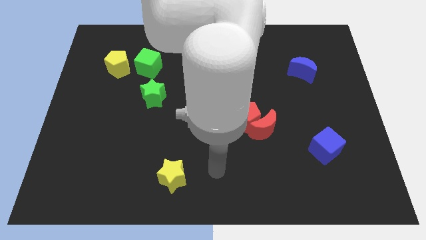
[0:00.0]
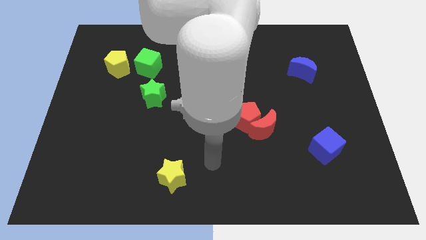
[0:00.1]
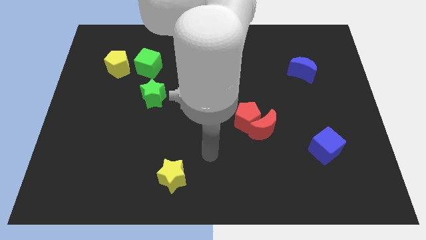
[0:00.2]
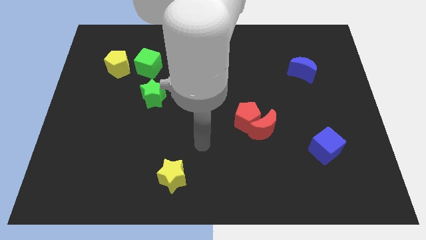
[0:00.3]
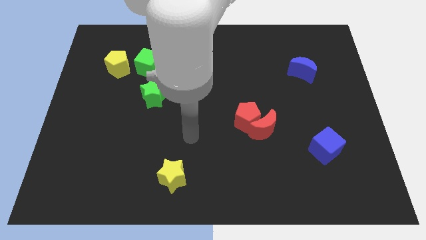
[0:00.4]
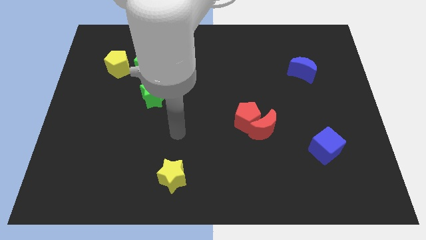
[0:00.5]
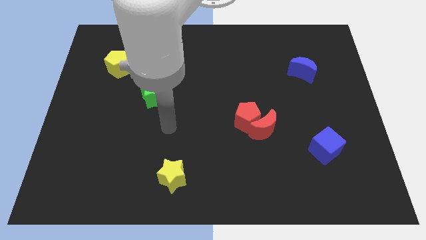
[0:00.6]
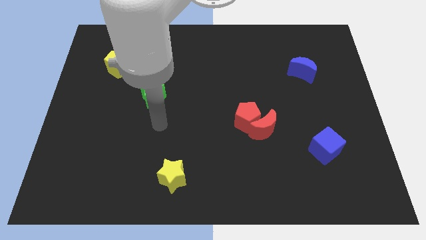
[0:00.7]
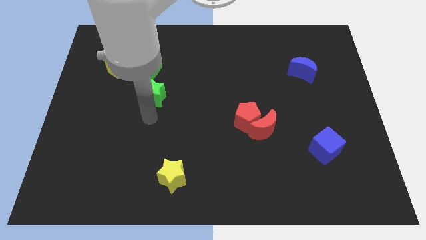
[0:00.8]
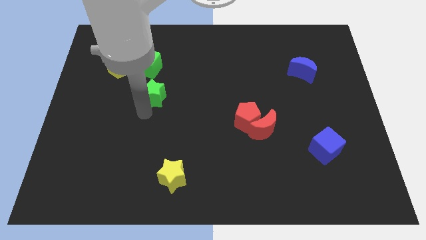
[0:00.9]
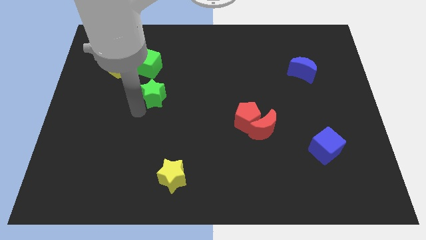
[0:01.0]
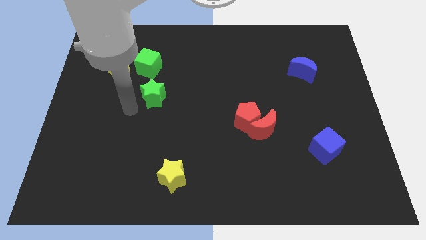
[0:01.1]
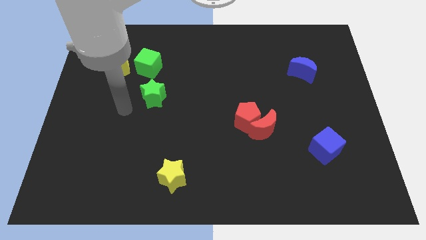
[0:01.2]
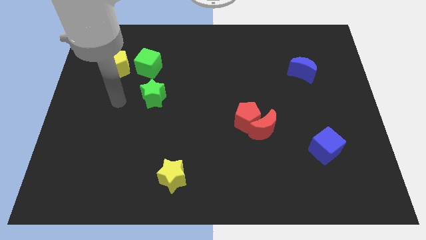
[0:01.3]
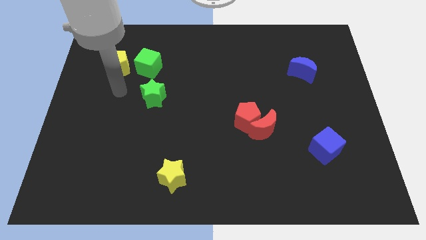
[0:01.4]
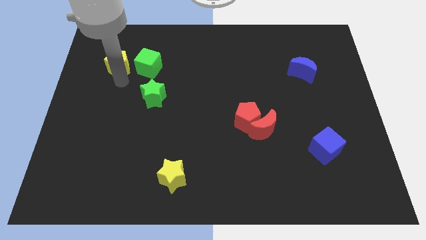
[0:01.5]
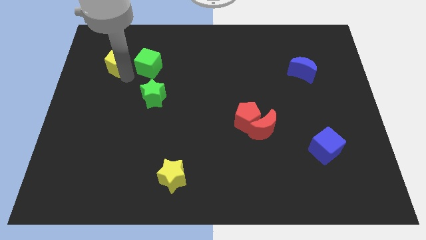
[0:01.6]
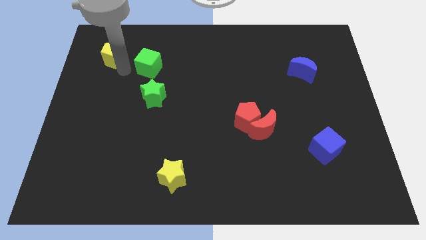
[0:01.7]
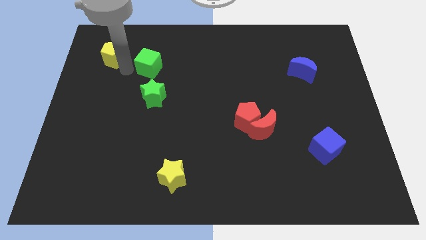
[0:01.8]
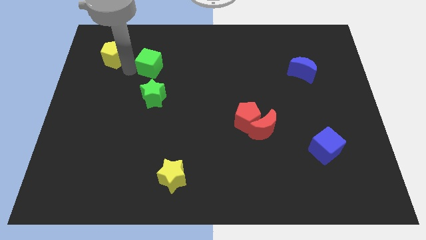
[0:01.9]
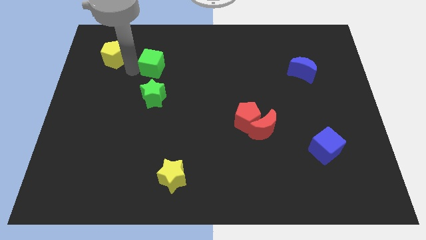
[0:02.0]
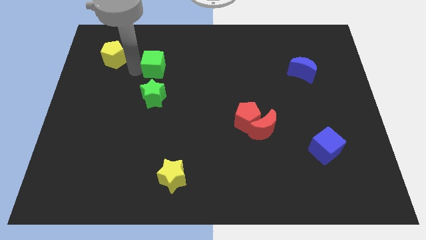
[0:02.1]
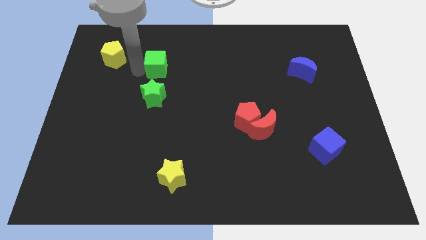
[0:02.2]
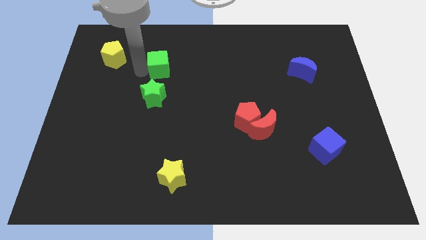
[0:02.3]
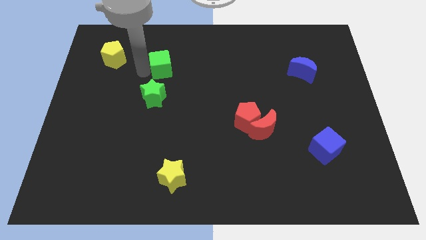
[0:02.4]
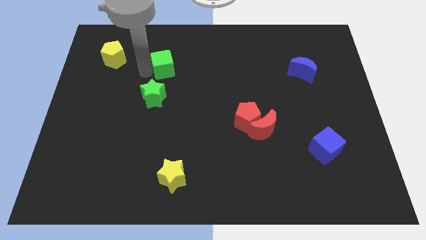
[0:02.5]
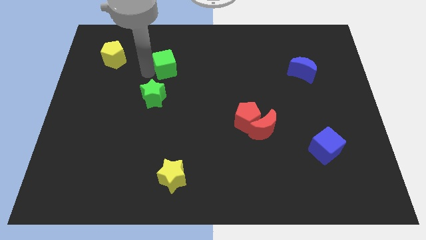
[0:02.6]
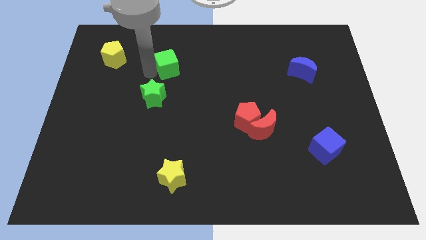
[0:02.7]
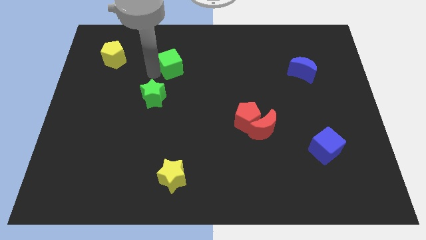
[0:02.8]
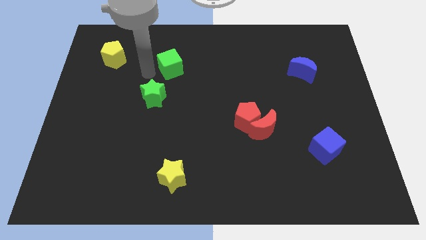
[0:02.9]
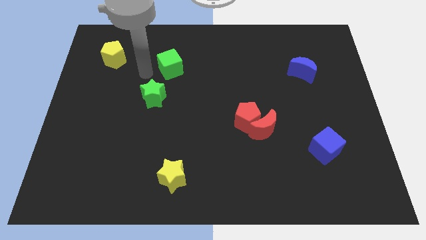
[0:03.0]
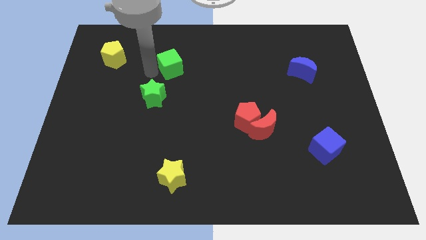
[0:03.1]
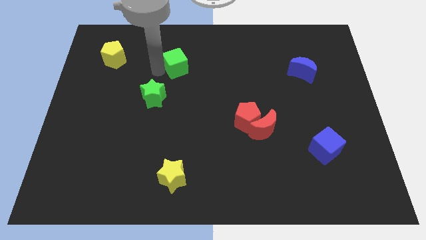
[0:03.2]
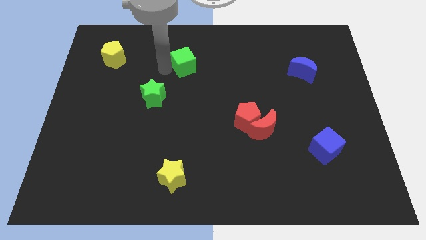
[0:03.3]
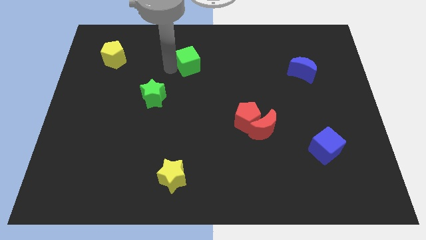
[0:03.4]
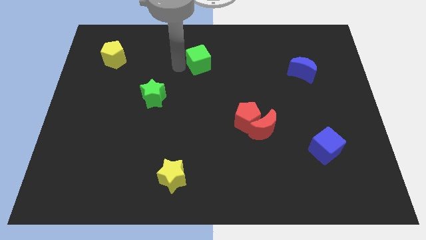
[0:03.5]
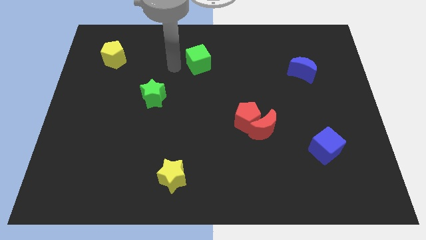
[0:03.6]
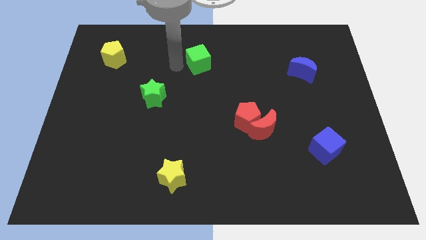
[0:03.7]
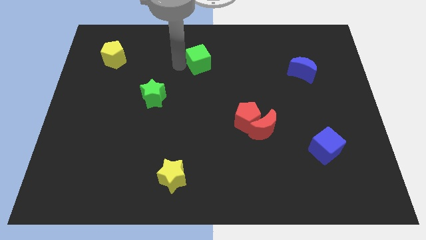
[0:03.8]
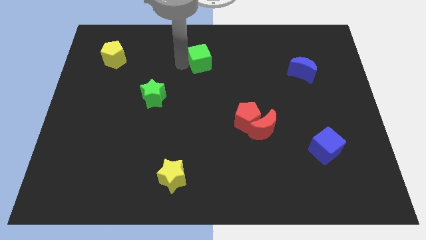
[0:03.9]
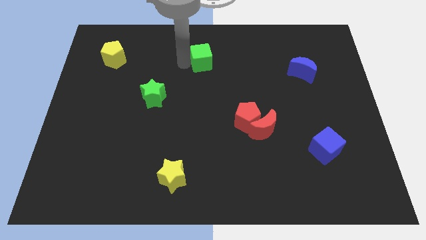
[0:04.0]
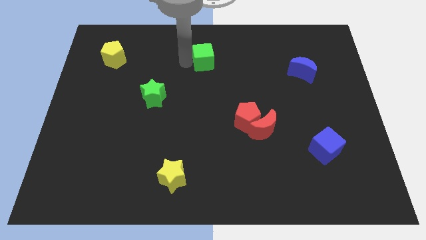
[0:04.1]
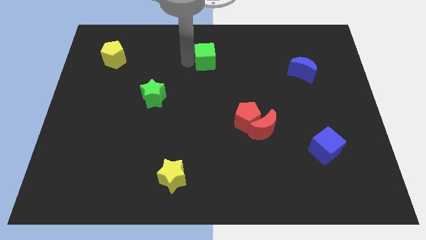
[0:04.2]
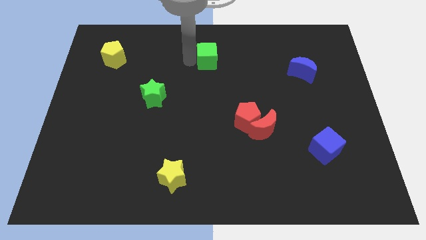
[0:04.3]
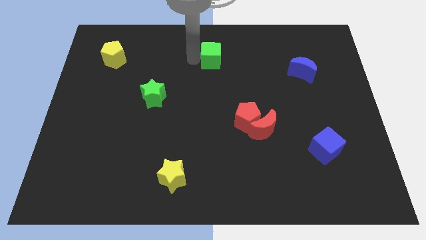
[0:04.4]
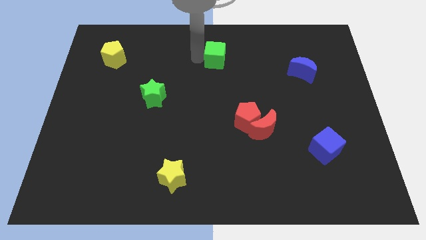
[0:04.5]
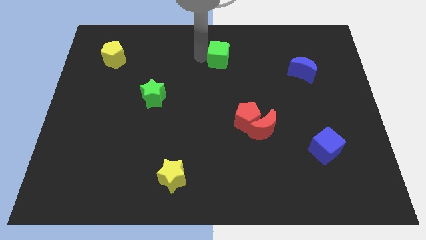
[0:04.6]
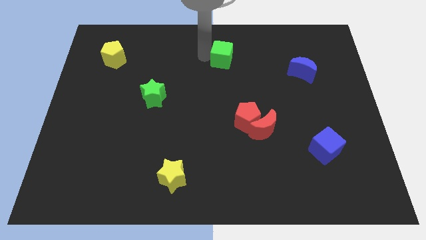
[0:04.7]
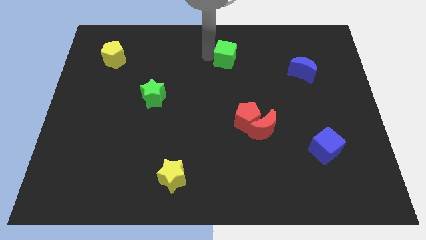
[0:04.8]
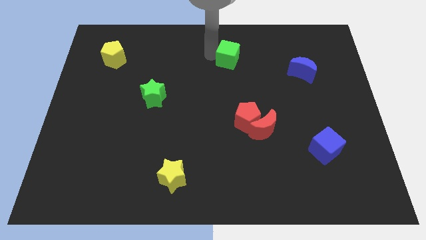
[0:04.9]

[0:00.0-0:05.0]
move the green cube right

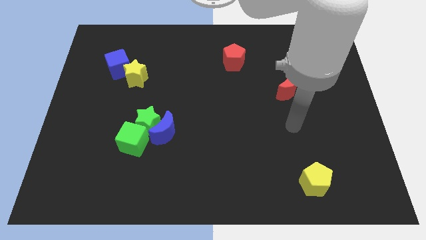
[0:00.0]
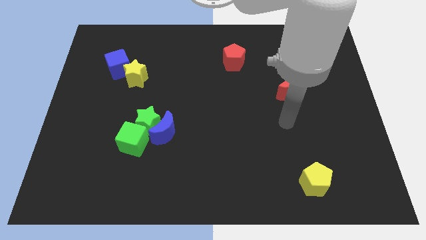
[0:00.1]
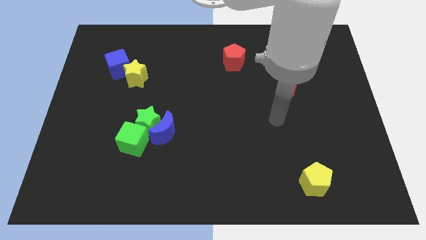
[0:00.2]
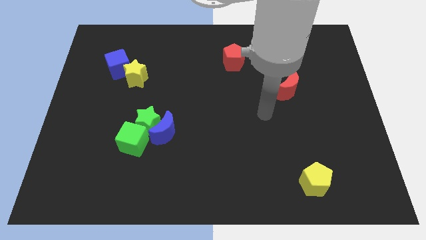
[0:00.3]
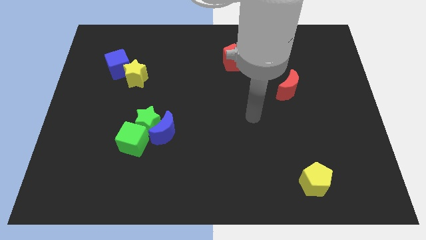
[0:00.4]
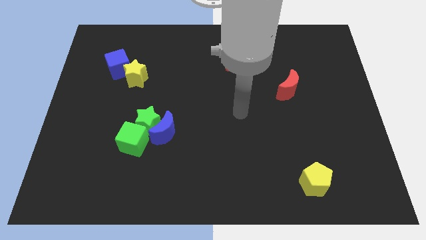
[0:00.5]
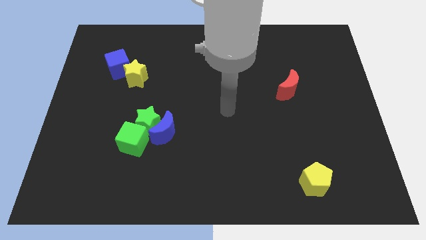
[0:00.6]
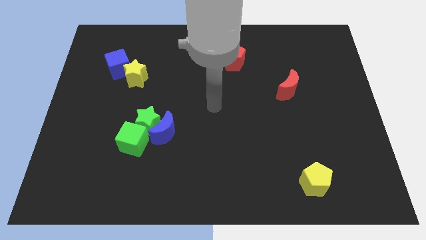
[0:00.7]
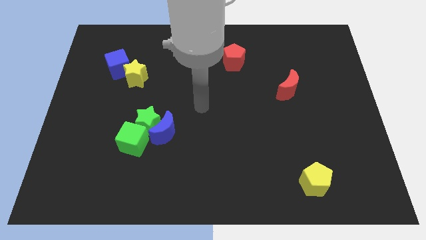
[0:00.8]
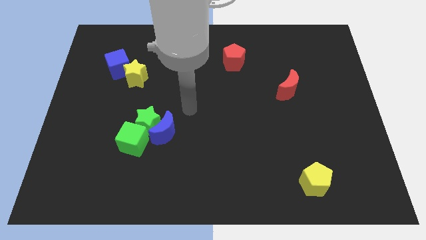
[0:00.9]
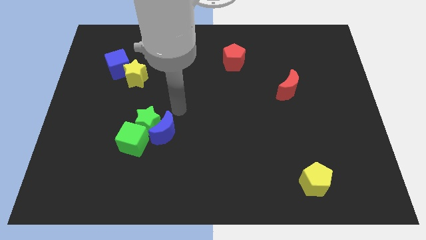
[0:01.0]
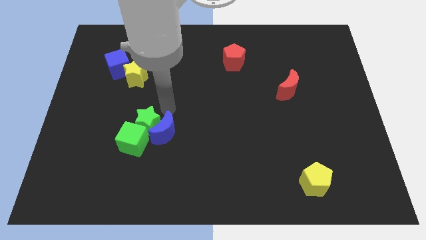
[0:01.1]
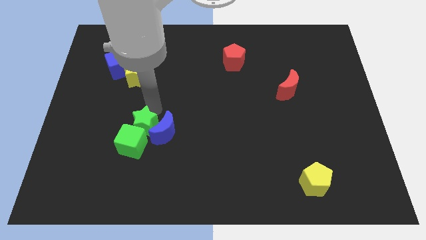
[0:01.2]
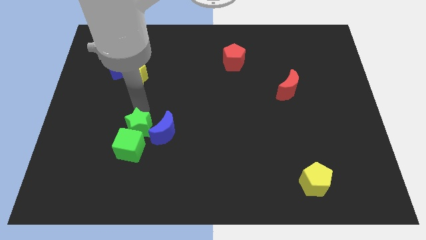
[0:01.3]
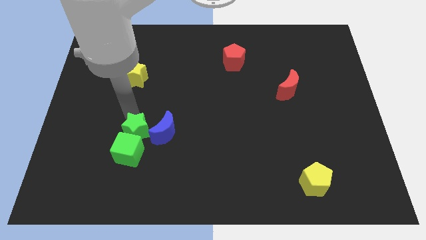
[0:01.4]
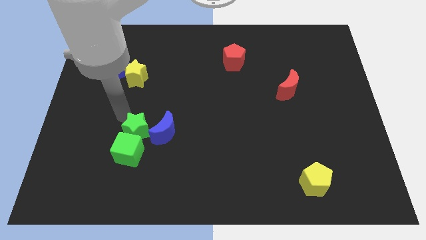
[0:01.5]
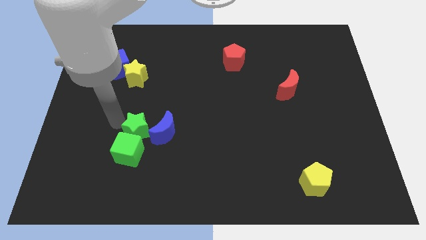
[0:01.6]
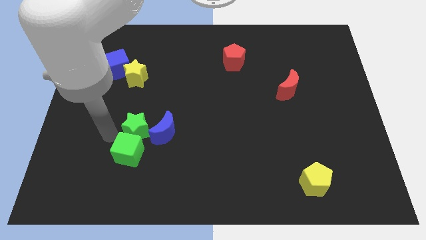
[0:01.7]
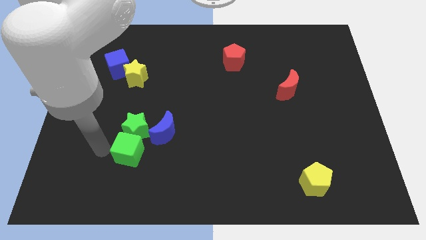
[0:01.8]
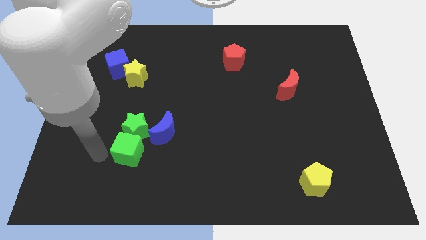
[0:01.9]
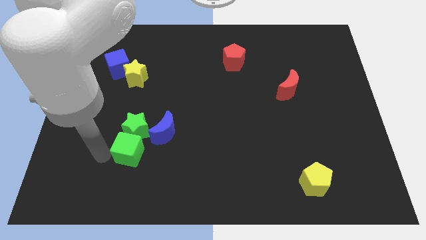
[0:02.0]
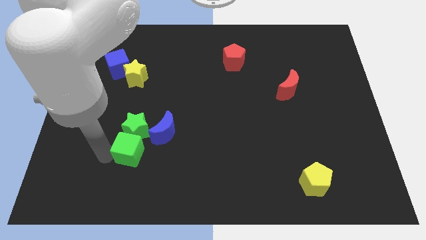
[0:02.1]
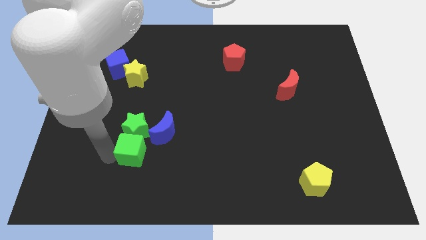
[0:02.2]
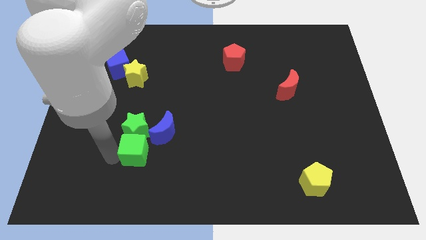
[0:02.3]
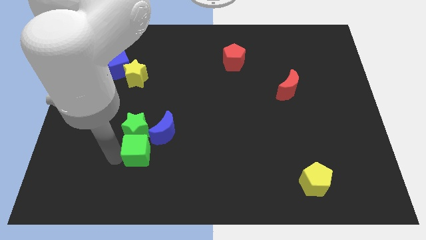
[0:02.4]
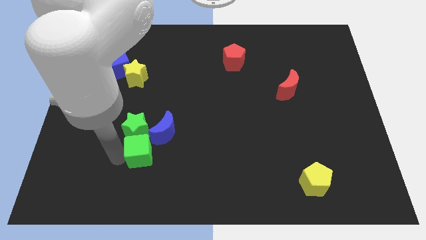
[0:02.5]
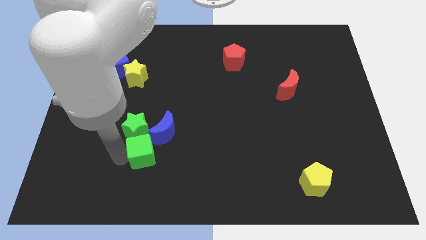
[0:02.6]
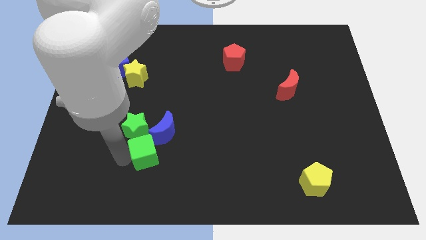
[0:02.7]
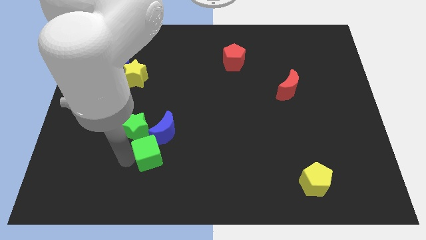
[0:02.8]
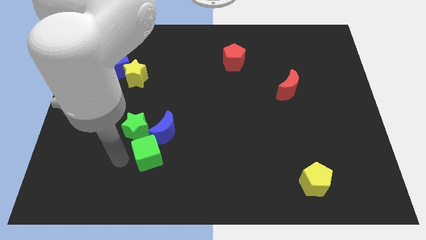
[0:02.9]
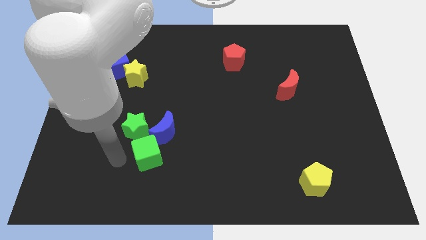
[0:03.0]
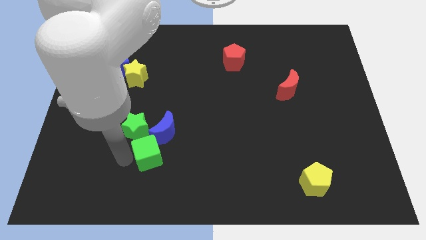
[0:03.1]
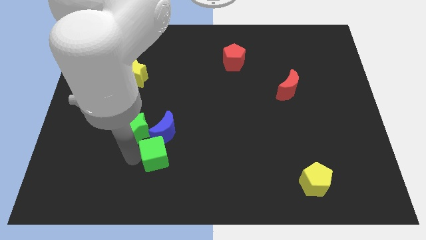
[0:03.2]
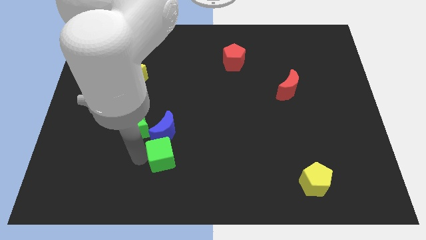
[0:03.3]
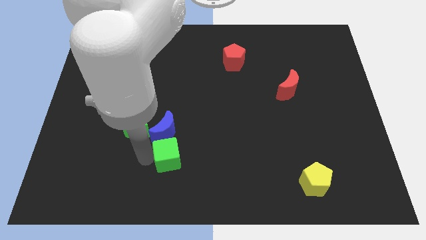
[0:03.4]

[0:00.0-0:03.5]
push the green cube a little bit to the right
